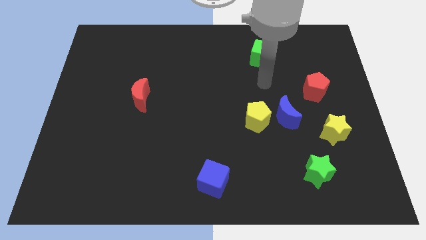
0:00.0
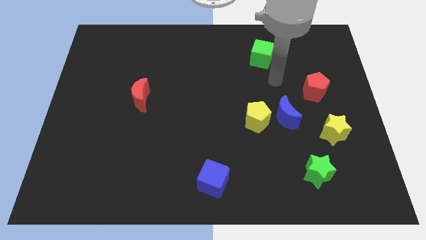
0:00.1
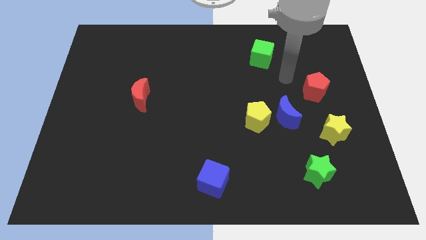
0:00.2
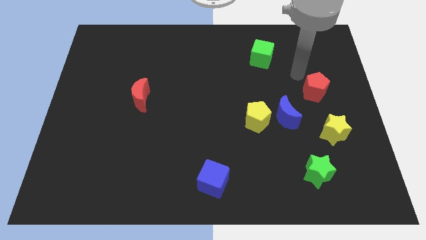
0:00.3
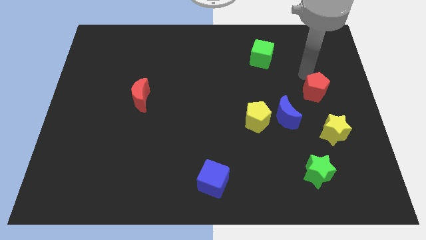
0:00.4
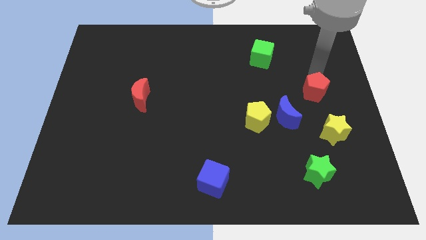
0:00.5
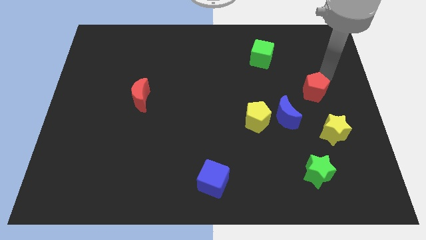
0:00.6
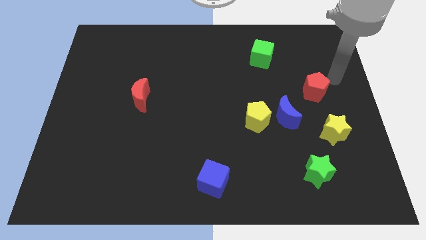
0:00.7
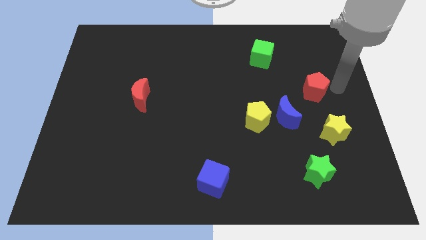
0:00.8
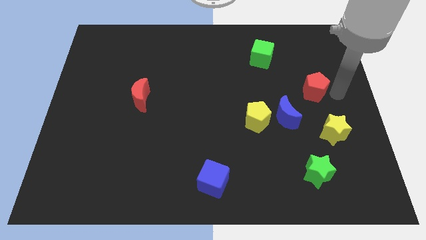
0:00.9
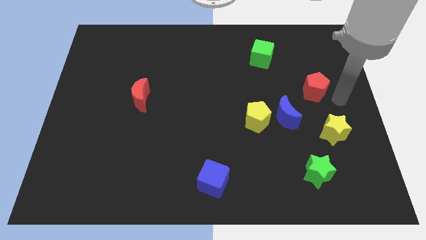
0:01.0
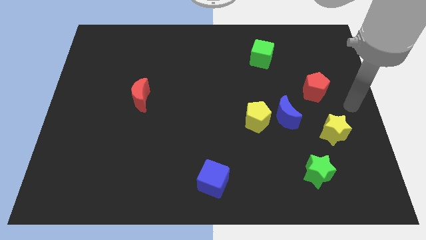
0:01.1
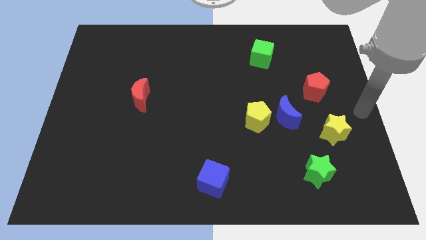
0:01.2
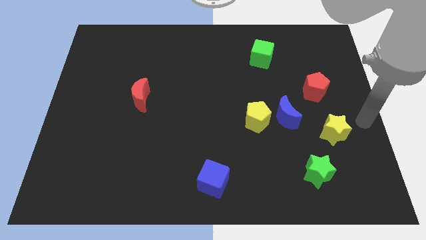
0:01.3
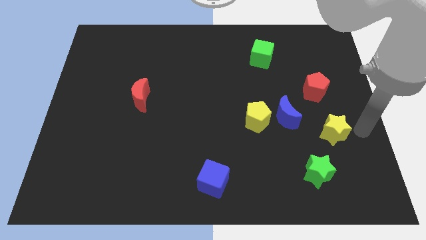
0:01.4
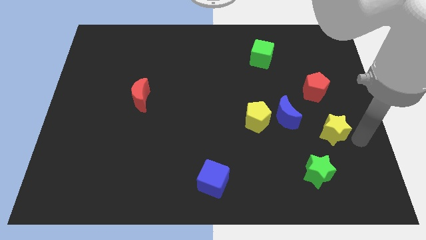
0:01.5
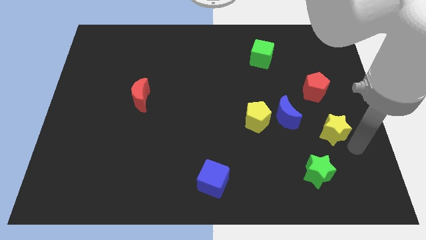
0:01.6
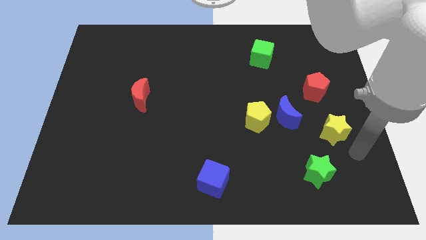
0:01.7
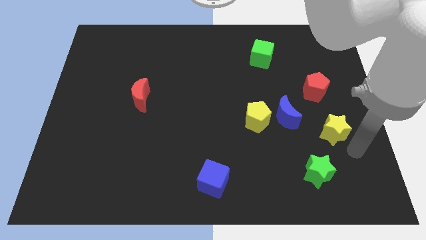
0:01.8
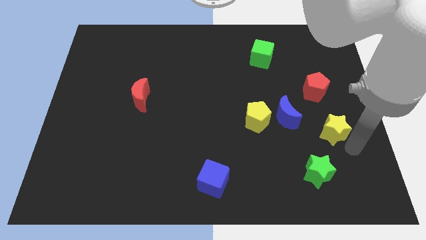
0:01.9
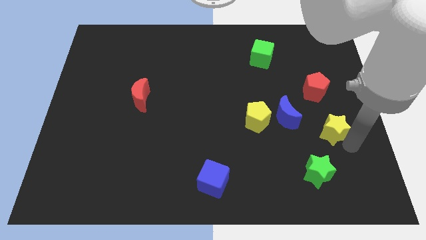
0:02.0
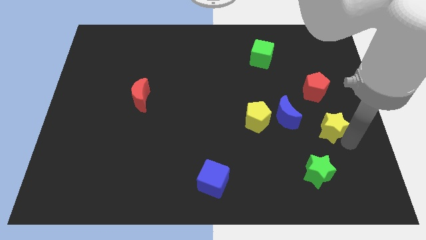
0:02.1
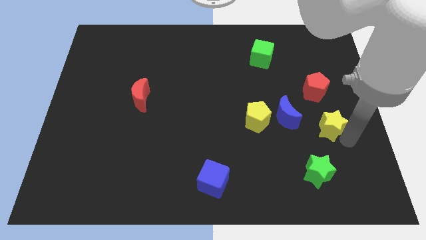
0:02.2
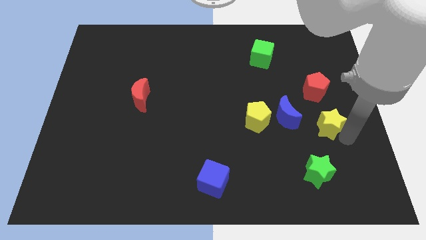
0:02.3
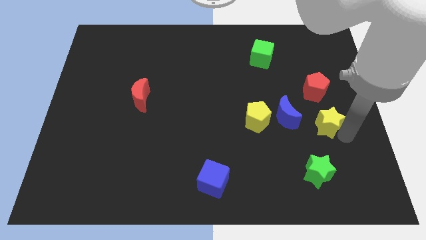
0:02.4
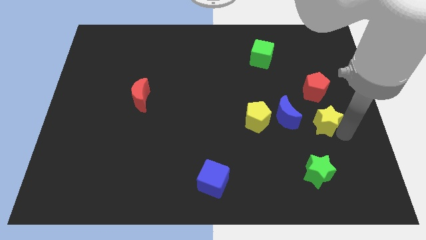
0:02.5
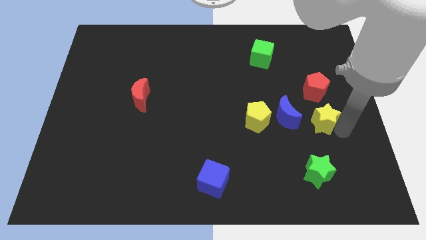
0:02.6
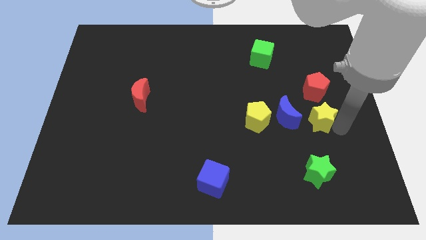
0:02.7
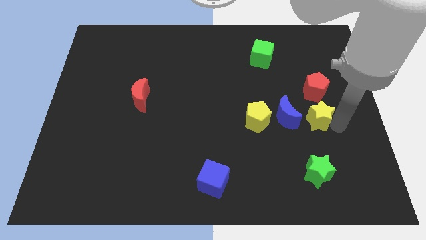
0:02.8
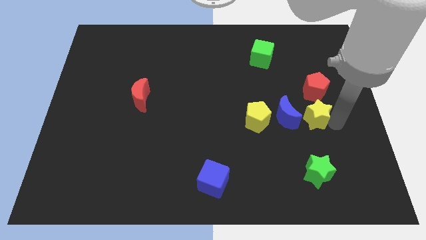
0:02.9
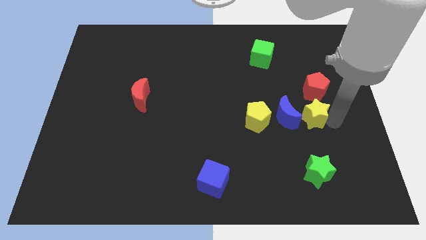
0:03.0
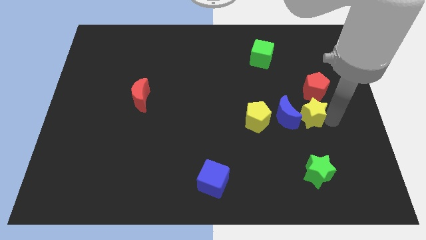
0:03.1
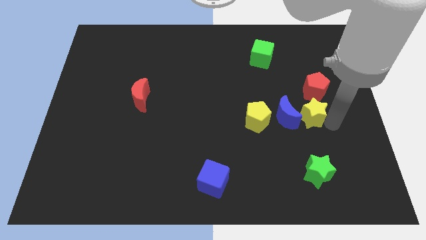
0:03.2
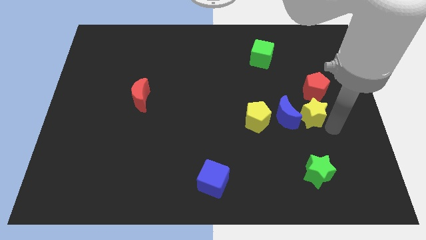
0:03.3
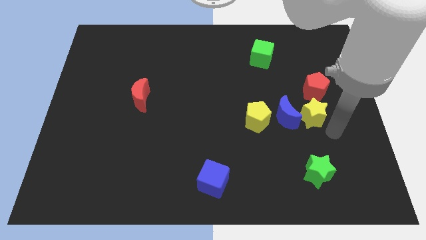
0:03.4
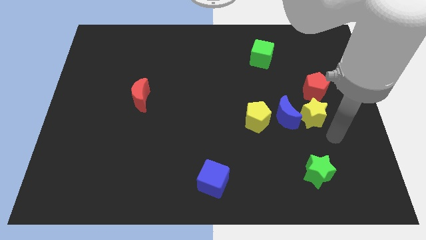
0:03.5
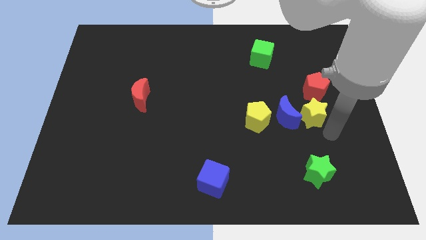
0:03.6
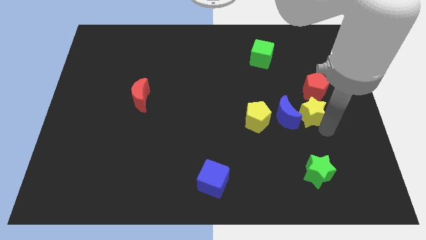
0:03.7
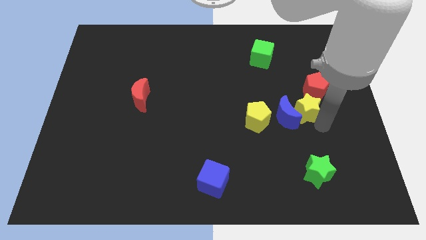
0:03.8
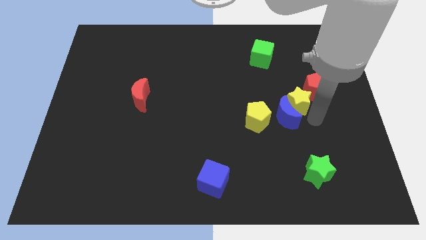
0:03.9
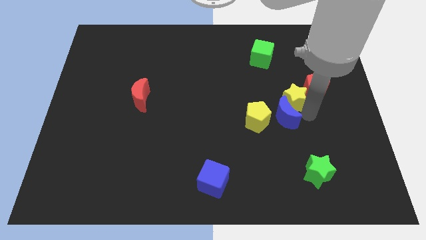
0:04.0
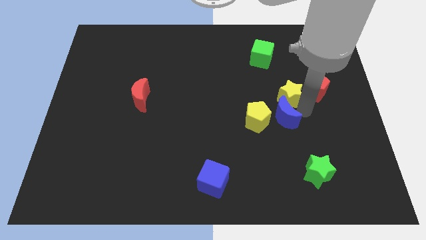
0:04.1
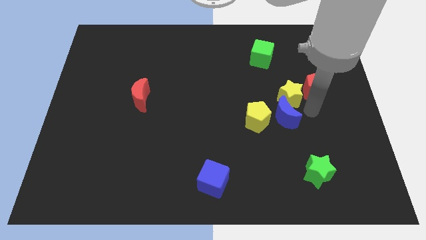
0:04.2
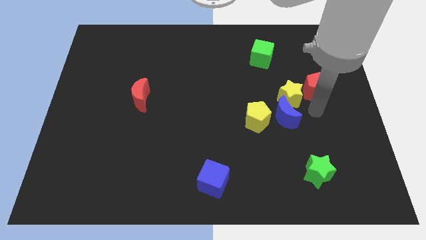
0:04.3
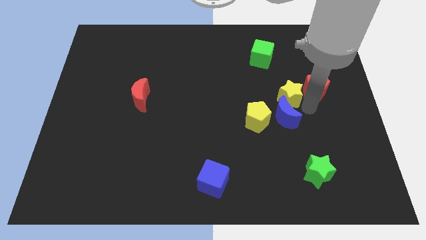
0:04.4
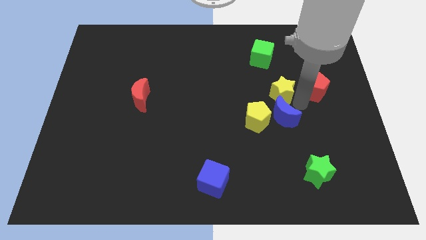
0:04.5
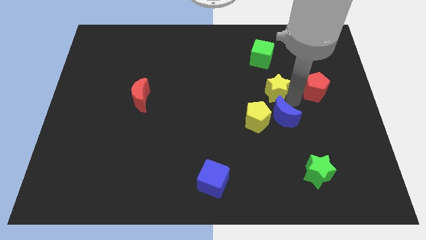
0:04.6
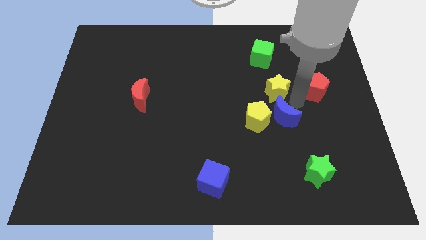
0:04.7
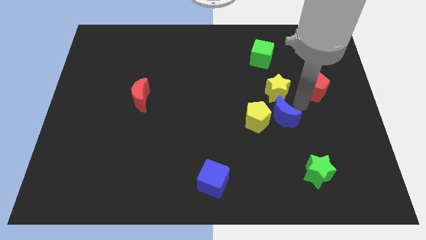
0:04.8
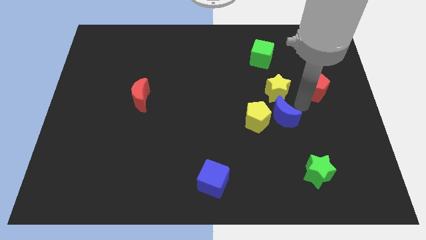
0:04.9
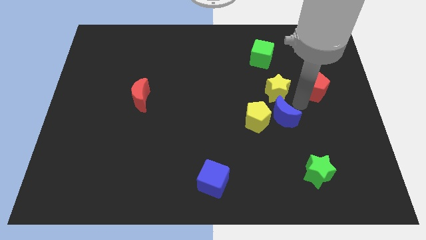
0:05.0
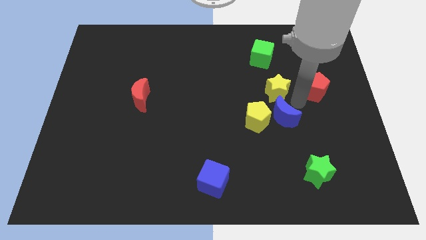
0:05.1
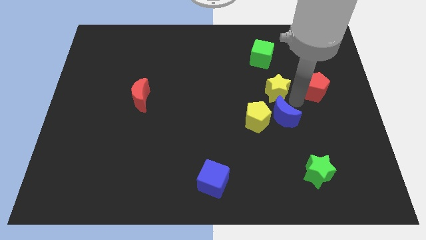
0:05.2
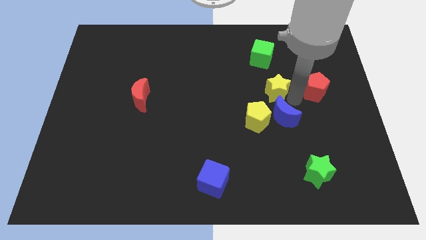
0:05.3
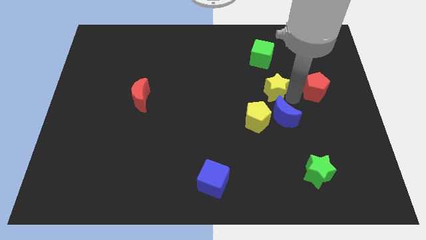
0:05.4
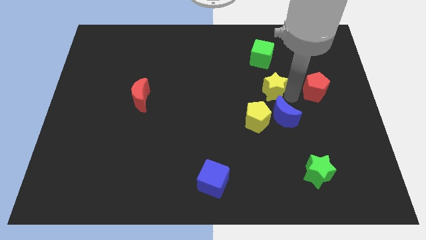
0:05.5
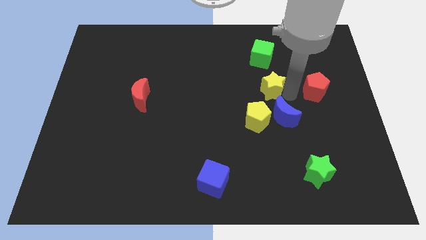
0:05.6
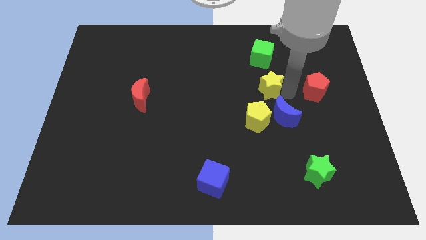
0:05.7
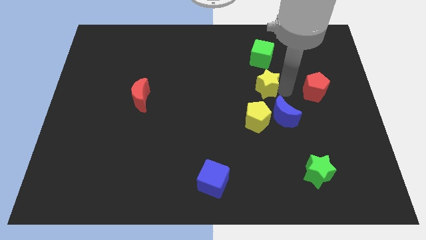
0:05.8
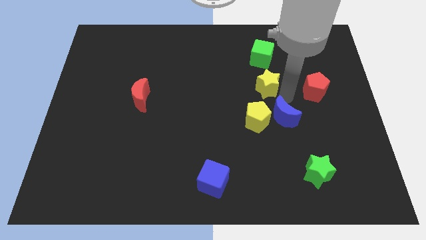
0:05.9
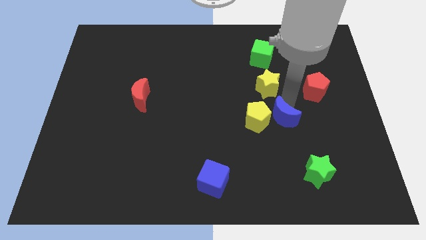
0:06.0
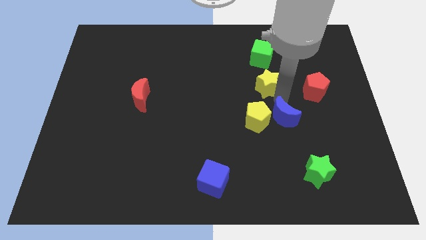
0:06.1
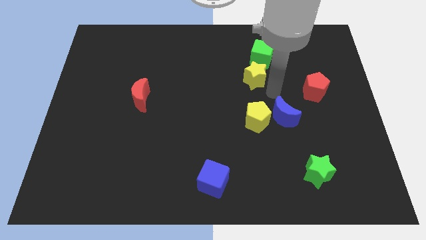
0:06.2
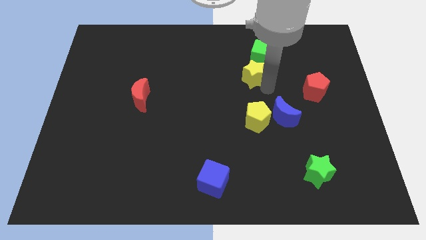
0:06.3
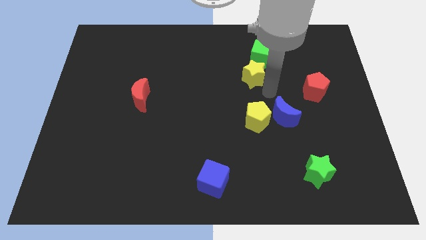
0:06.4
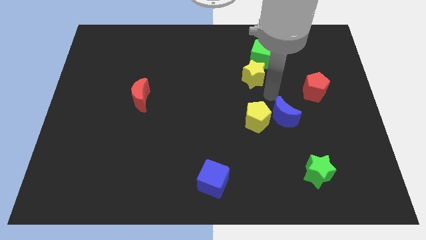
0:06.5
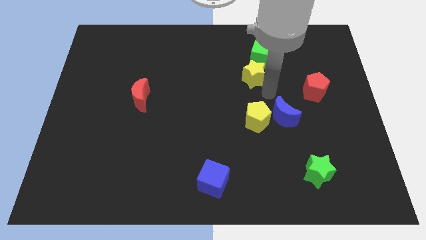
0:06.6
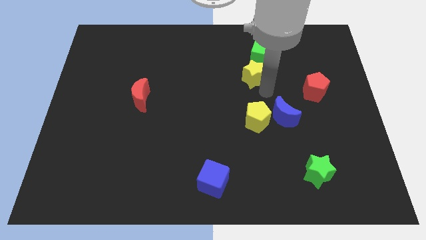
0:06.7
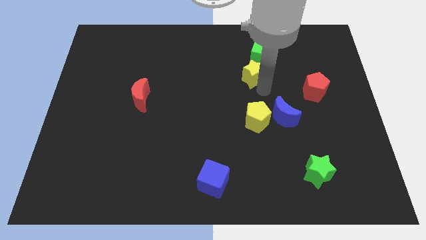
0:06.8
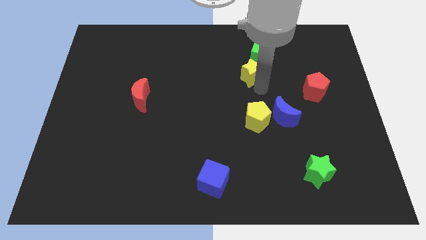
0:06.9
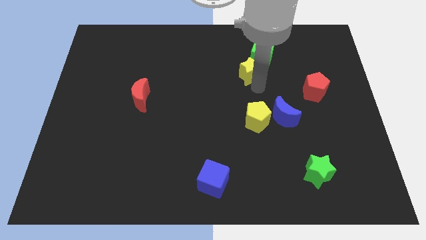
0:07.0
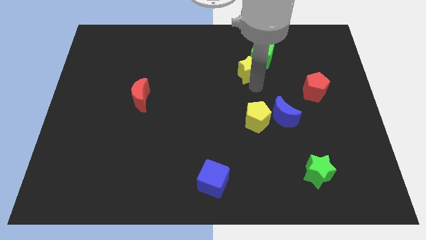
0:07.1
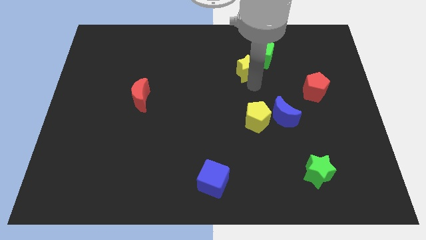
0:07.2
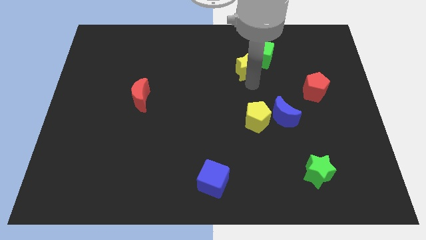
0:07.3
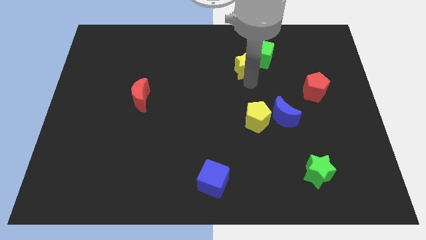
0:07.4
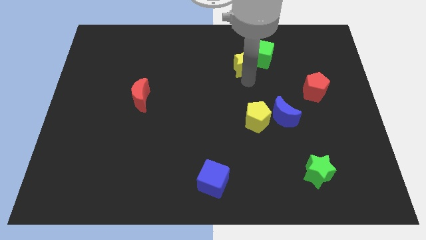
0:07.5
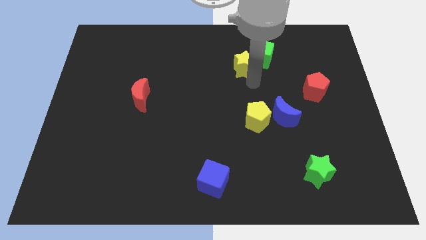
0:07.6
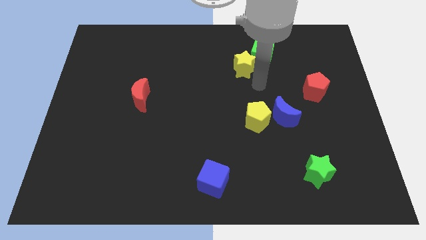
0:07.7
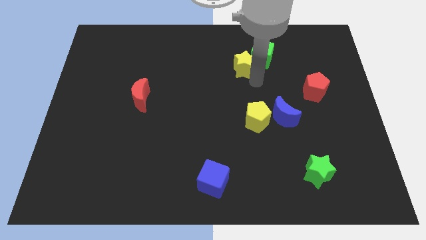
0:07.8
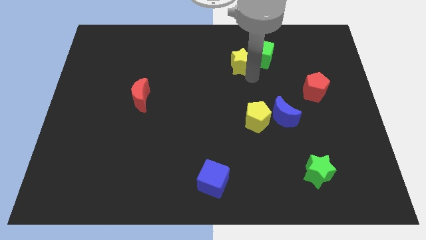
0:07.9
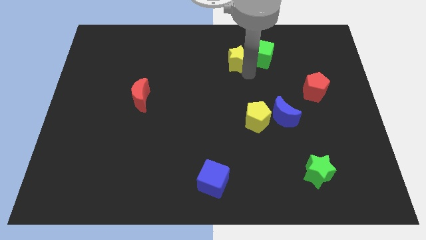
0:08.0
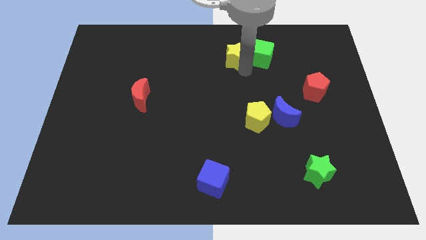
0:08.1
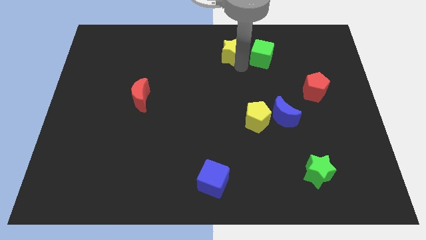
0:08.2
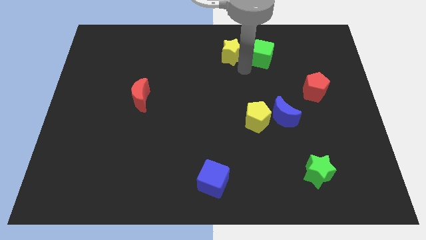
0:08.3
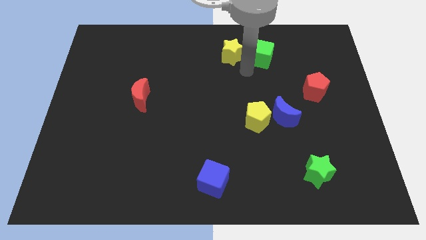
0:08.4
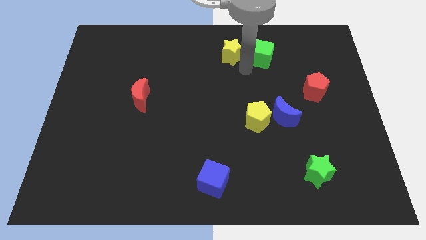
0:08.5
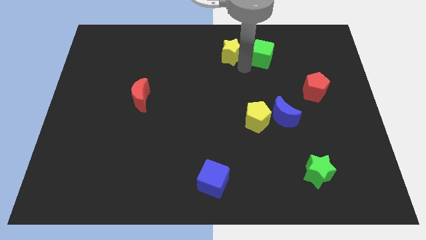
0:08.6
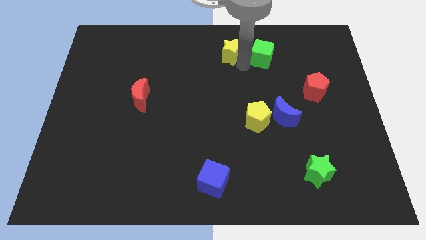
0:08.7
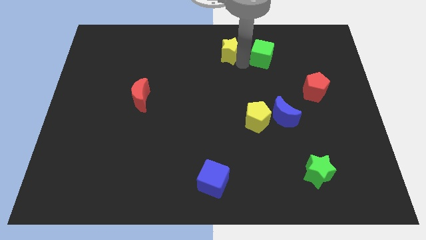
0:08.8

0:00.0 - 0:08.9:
put the yellow star to the top
